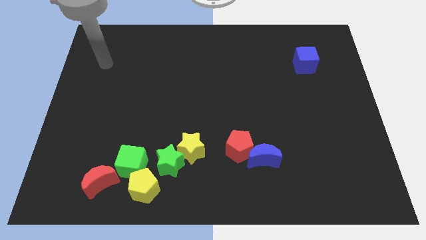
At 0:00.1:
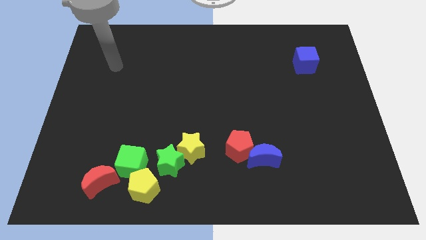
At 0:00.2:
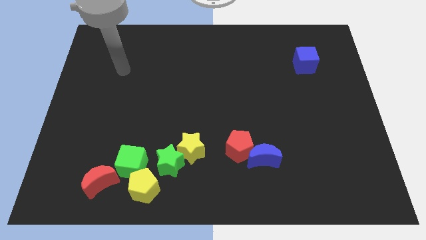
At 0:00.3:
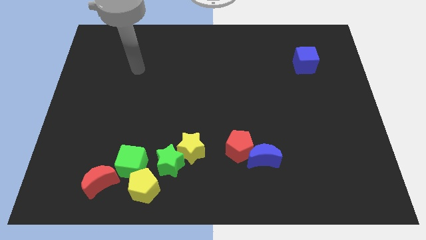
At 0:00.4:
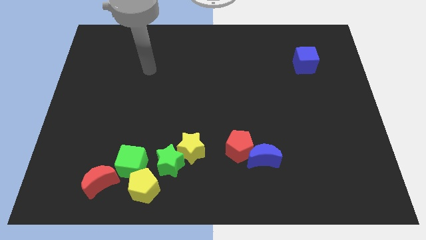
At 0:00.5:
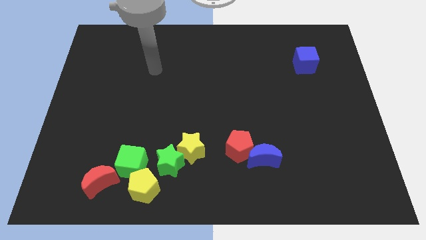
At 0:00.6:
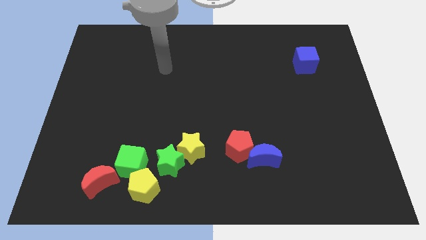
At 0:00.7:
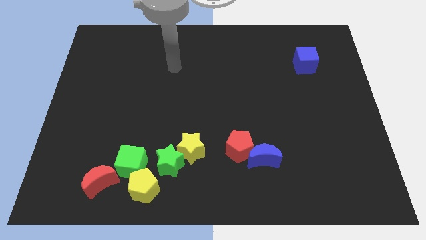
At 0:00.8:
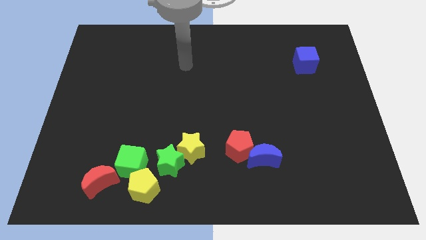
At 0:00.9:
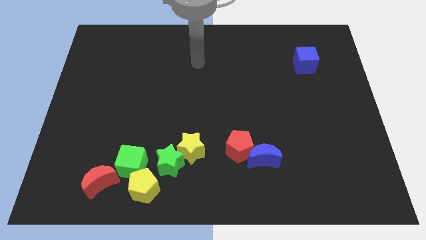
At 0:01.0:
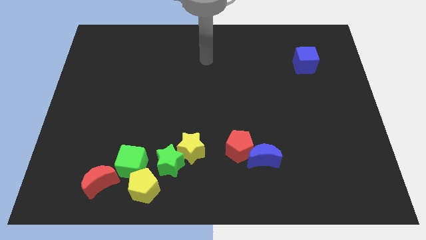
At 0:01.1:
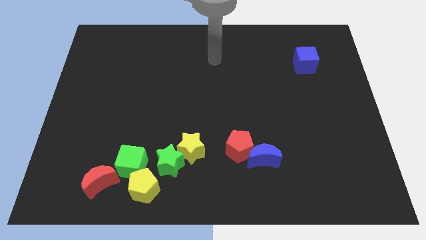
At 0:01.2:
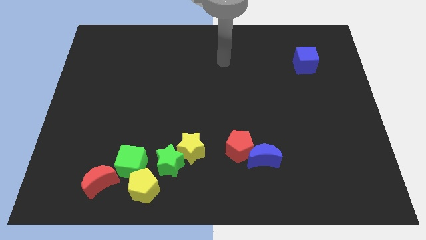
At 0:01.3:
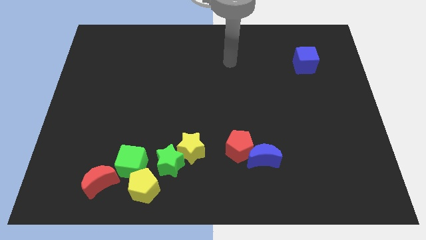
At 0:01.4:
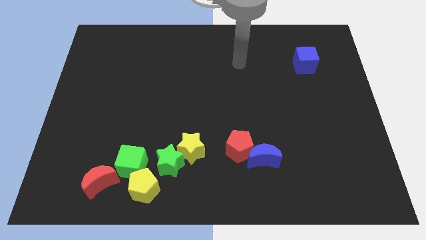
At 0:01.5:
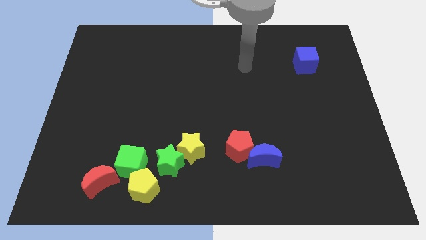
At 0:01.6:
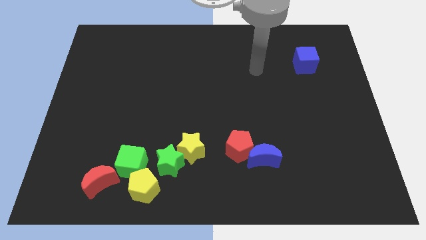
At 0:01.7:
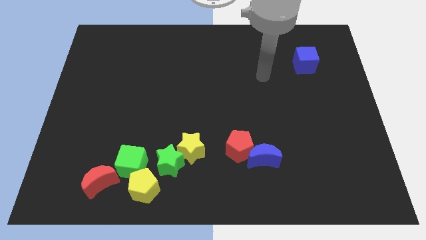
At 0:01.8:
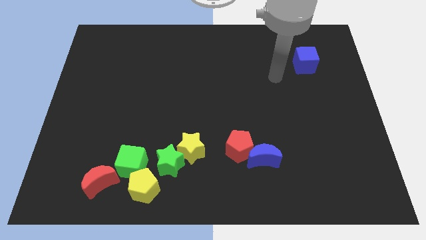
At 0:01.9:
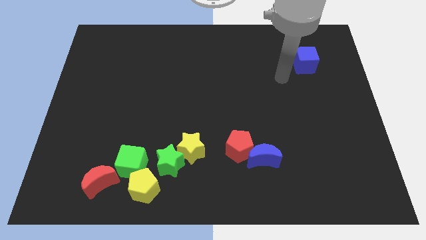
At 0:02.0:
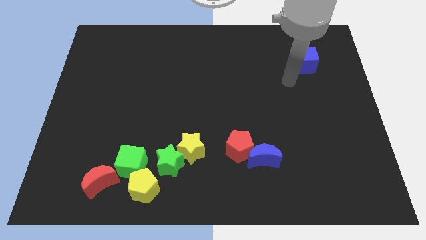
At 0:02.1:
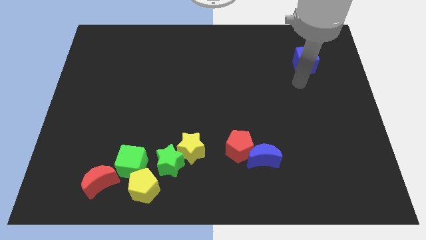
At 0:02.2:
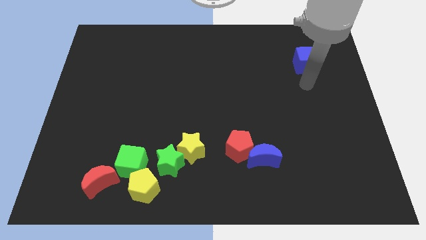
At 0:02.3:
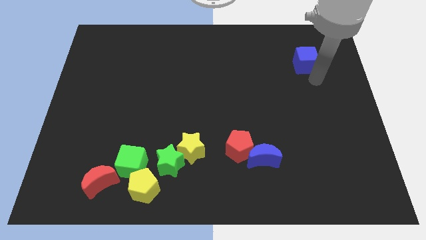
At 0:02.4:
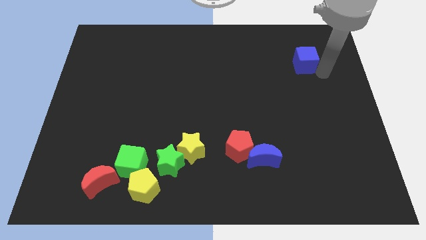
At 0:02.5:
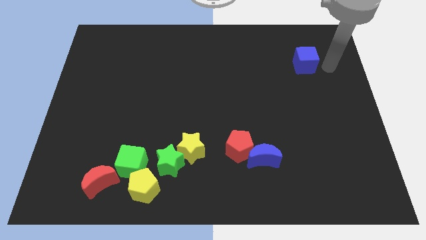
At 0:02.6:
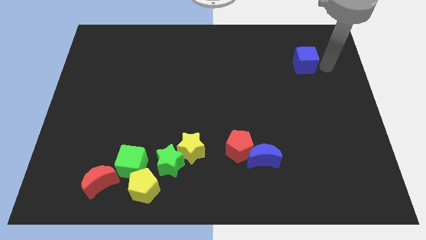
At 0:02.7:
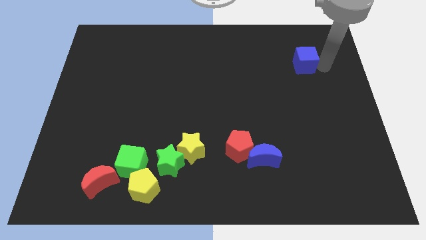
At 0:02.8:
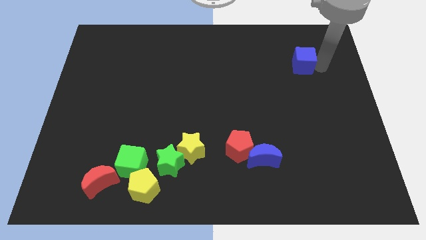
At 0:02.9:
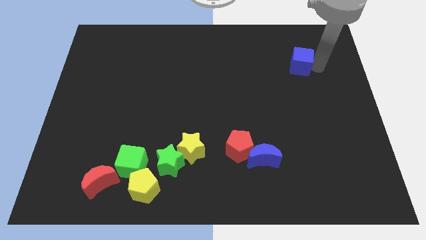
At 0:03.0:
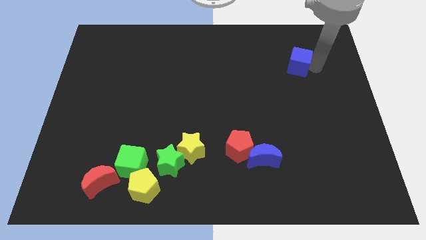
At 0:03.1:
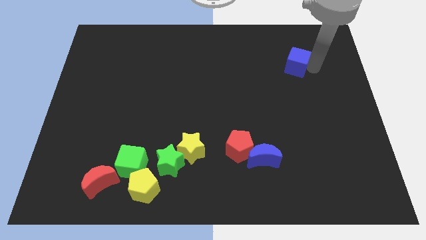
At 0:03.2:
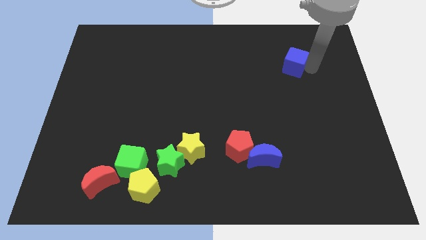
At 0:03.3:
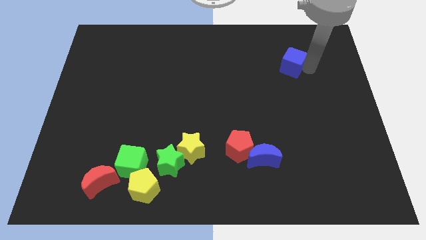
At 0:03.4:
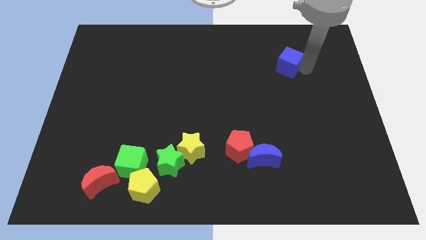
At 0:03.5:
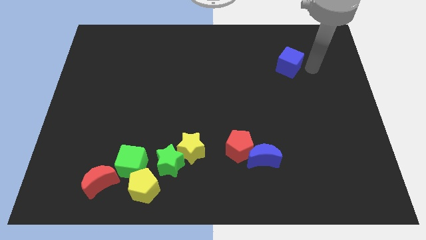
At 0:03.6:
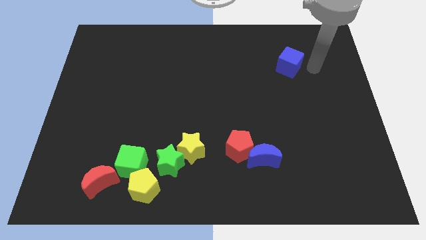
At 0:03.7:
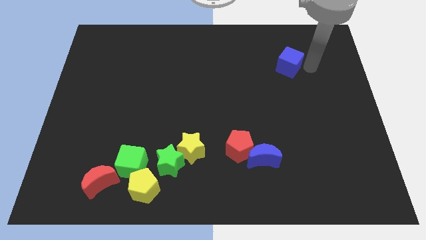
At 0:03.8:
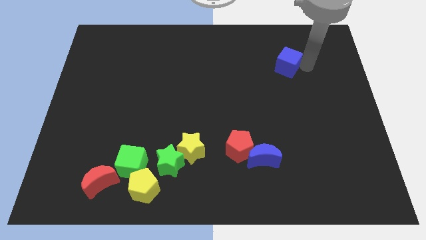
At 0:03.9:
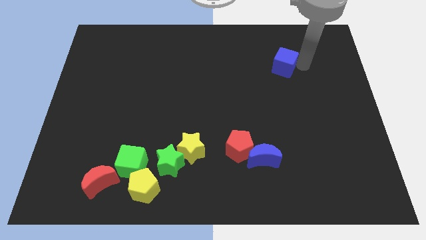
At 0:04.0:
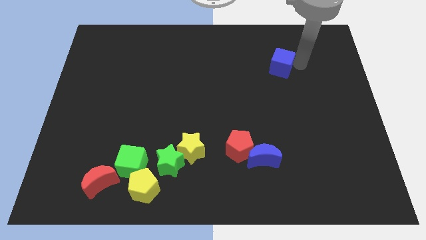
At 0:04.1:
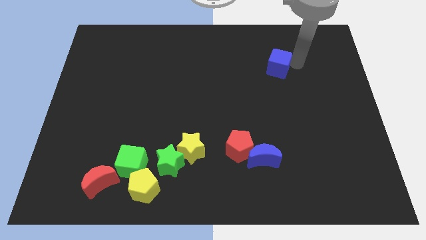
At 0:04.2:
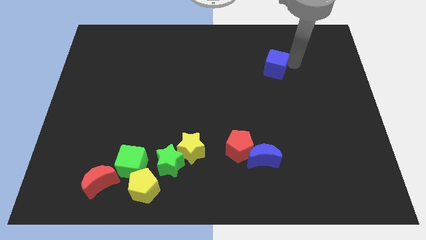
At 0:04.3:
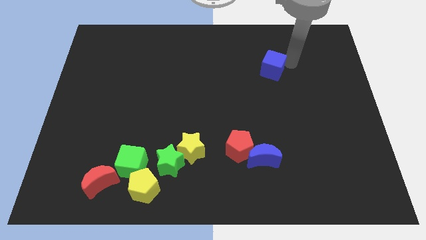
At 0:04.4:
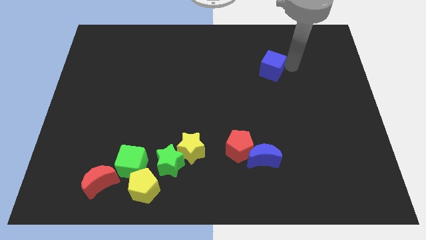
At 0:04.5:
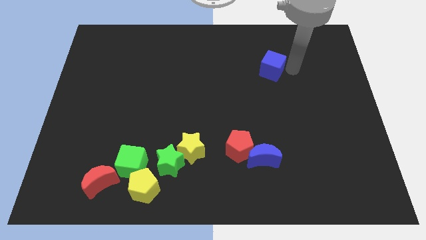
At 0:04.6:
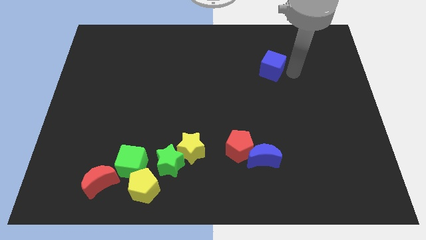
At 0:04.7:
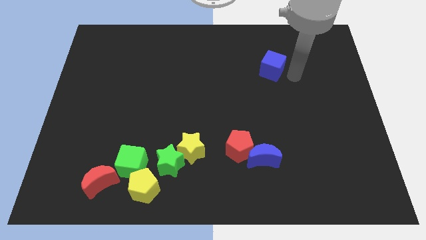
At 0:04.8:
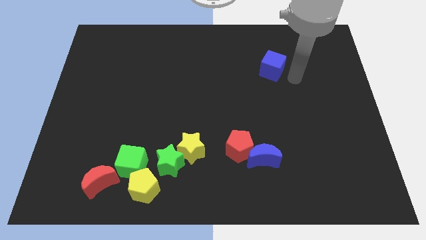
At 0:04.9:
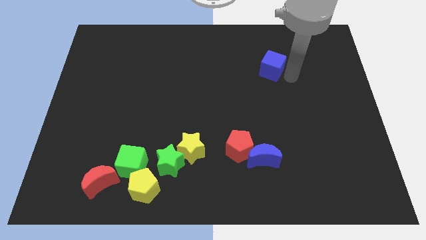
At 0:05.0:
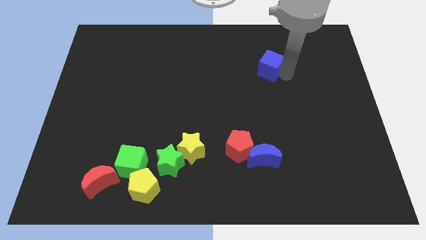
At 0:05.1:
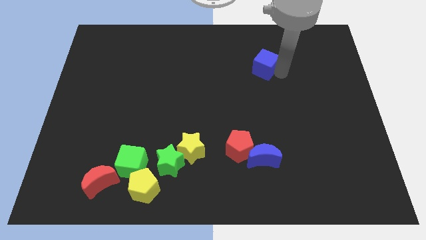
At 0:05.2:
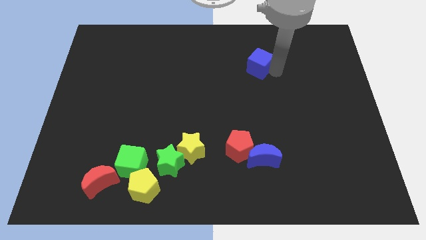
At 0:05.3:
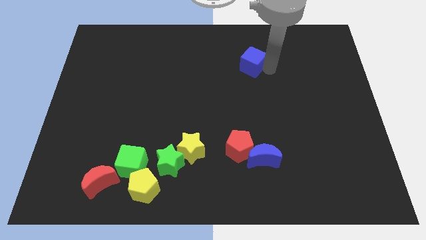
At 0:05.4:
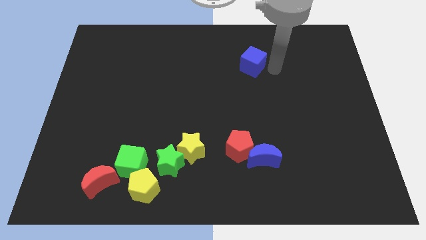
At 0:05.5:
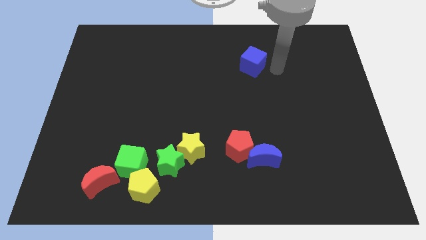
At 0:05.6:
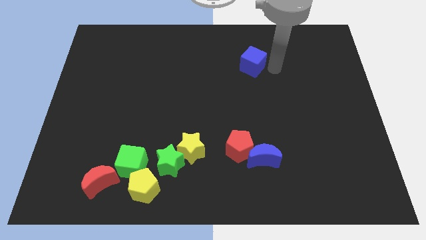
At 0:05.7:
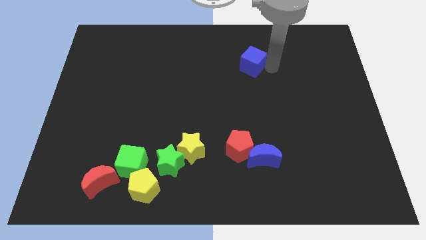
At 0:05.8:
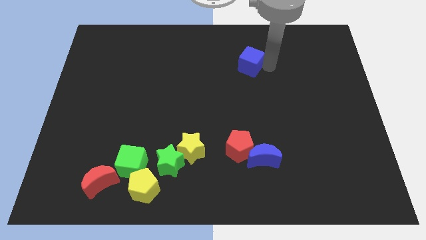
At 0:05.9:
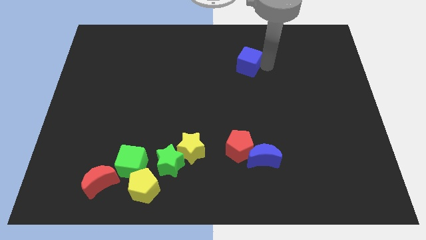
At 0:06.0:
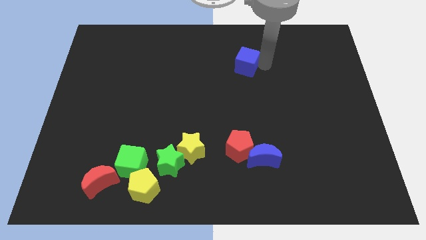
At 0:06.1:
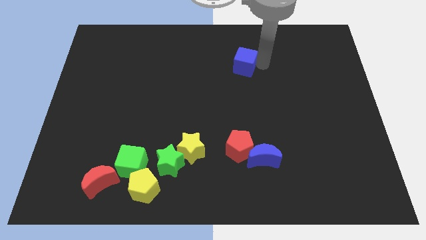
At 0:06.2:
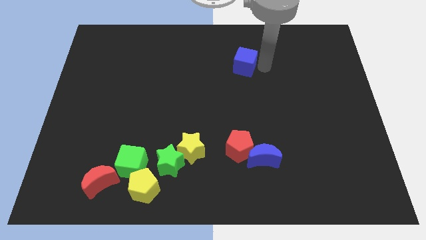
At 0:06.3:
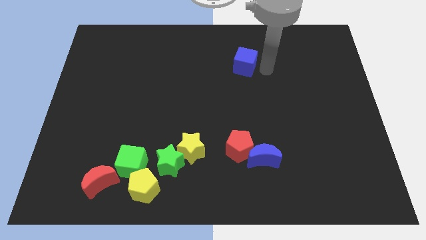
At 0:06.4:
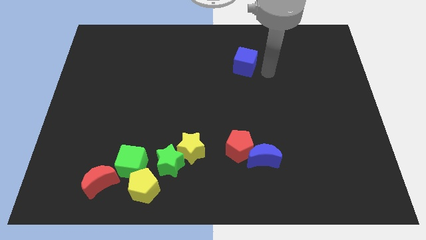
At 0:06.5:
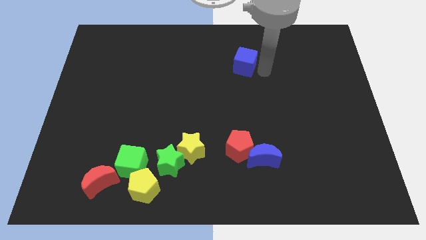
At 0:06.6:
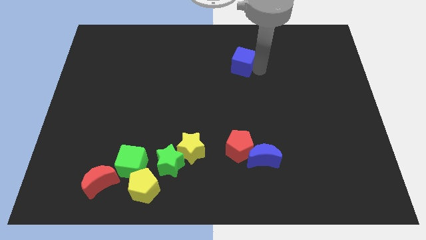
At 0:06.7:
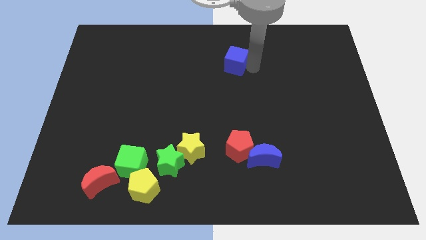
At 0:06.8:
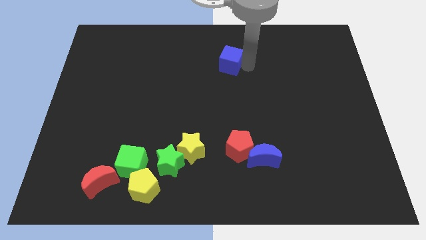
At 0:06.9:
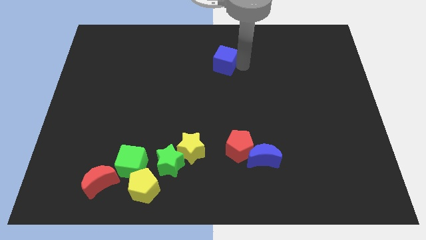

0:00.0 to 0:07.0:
move the blue cube left

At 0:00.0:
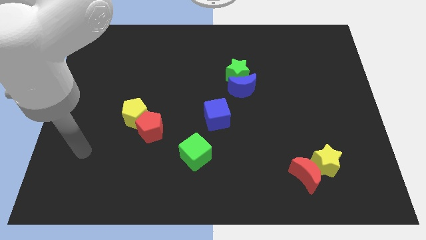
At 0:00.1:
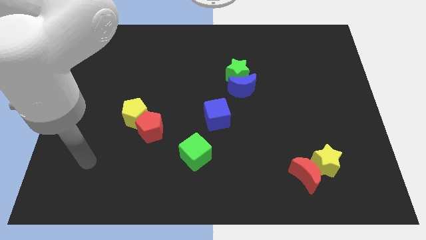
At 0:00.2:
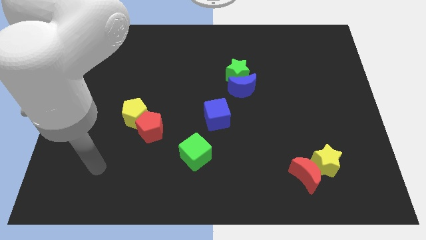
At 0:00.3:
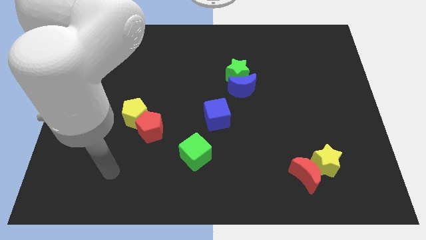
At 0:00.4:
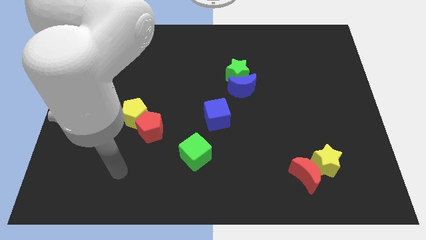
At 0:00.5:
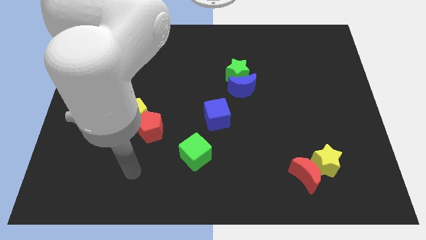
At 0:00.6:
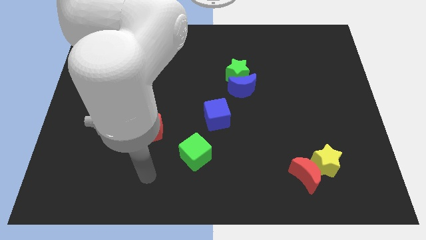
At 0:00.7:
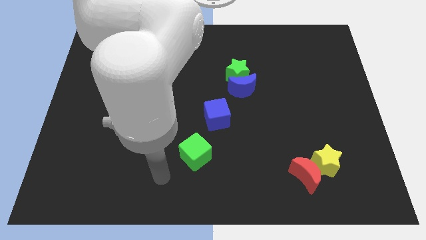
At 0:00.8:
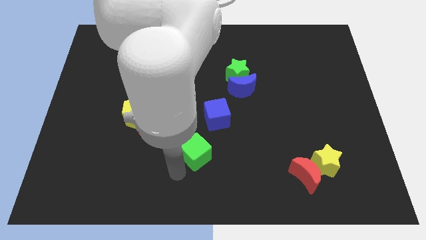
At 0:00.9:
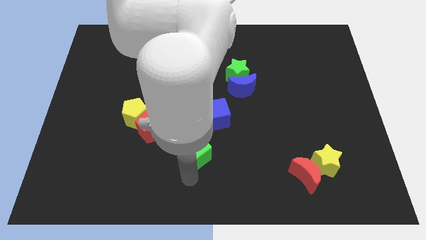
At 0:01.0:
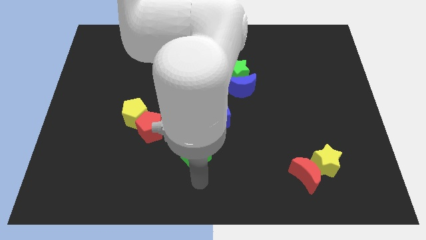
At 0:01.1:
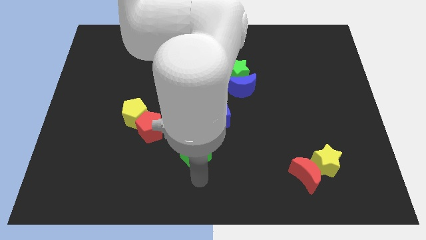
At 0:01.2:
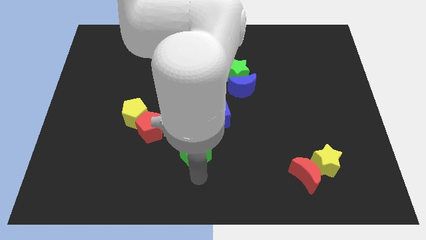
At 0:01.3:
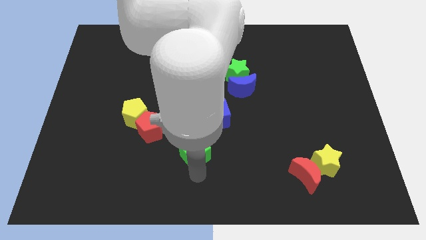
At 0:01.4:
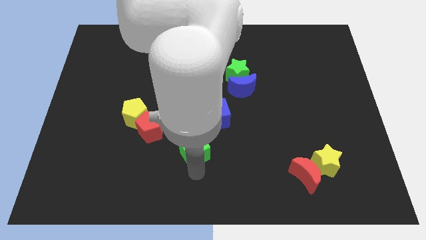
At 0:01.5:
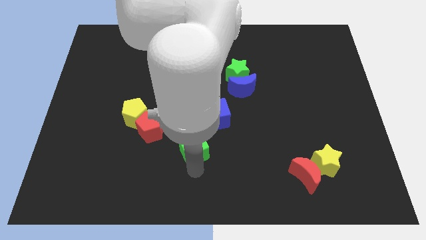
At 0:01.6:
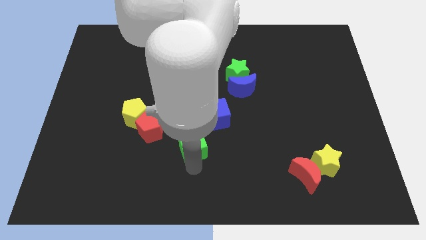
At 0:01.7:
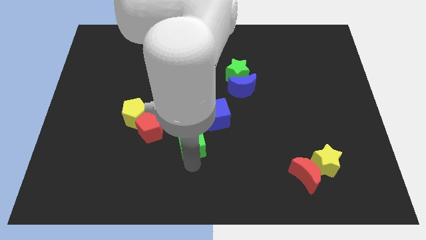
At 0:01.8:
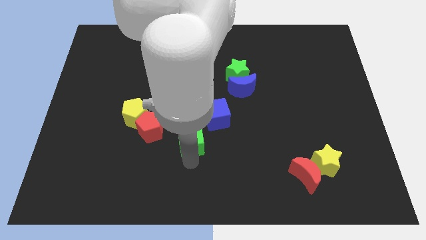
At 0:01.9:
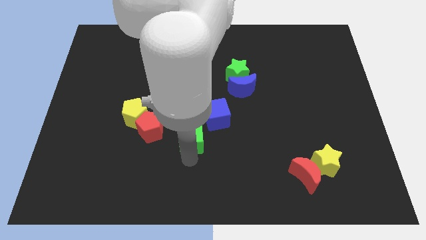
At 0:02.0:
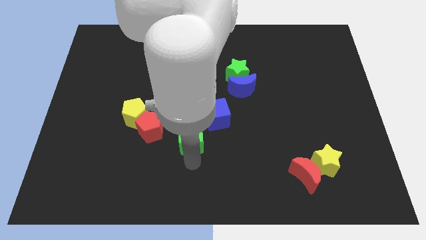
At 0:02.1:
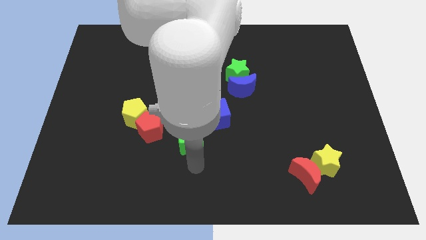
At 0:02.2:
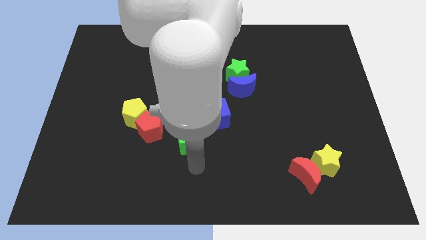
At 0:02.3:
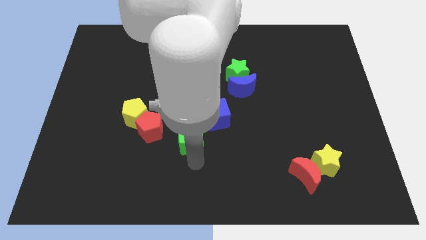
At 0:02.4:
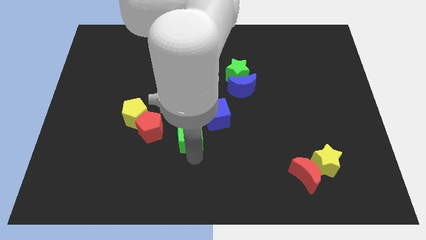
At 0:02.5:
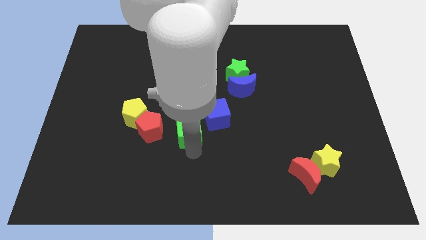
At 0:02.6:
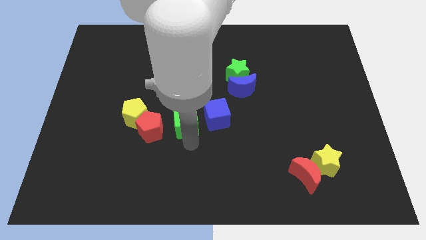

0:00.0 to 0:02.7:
push the green cube somewhat upwards
